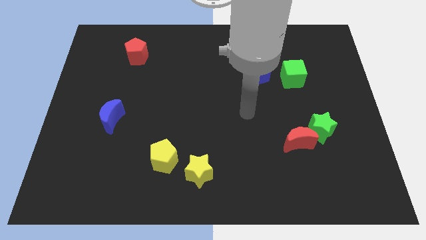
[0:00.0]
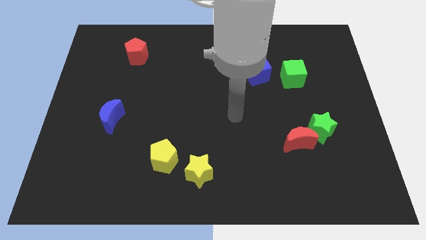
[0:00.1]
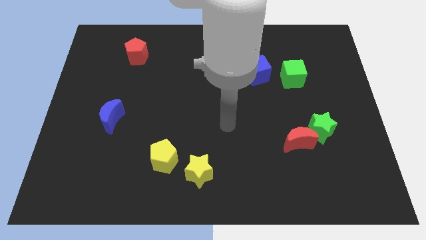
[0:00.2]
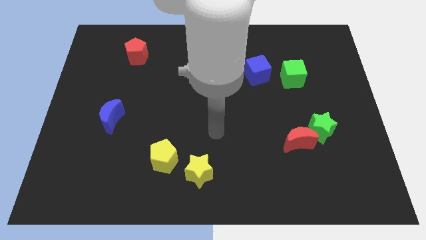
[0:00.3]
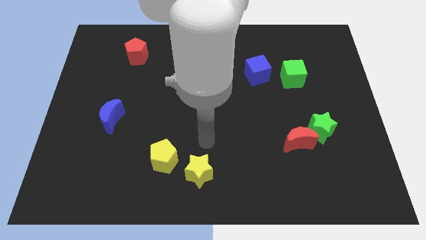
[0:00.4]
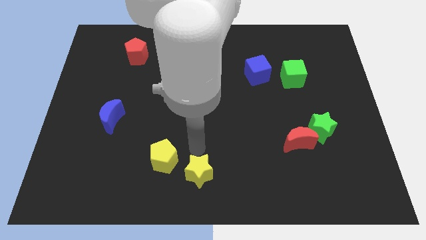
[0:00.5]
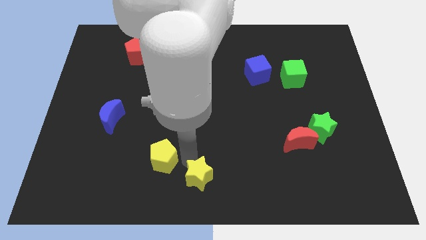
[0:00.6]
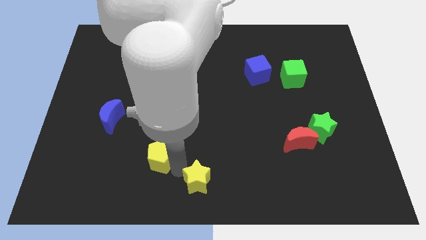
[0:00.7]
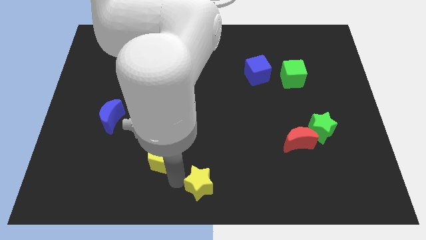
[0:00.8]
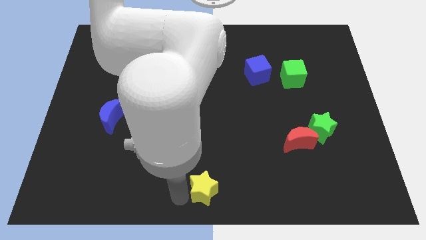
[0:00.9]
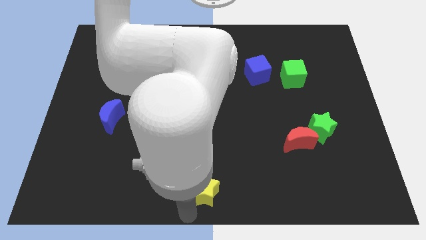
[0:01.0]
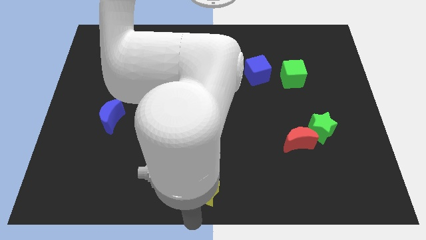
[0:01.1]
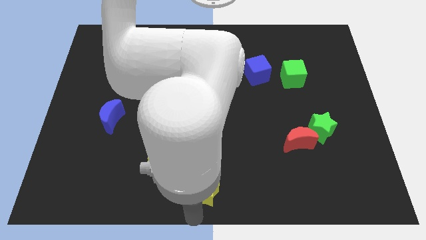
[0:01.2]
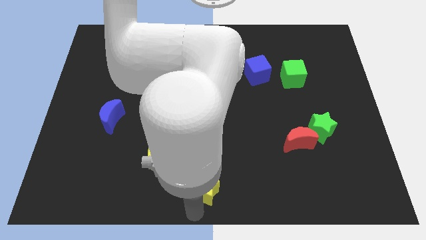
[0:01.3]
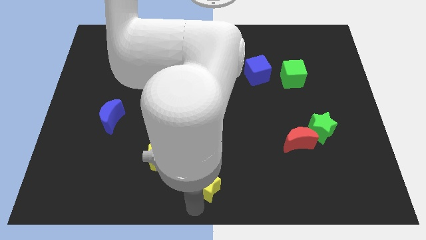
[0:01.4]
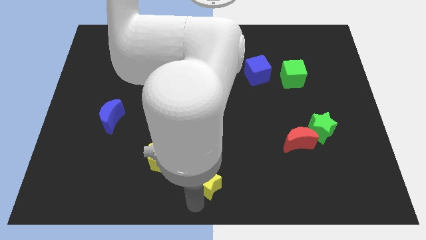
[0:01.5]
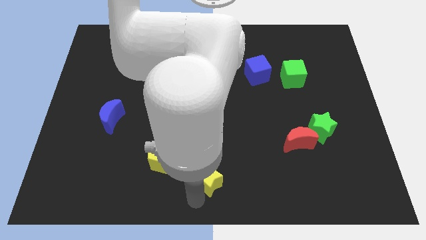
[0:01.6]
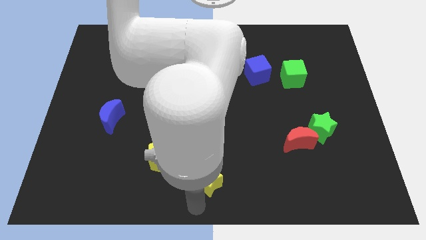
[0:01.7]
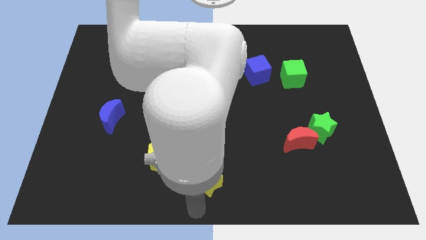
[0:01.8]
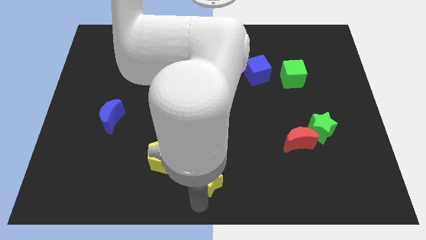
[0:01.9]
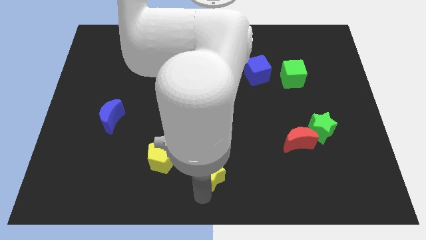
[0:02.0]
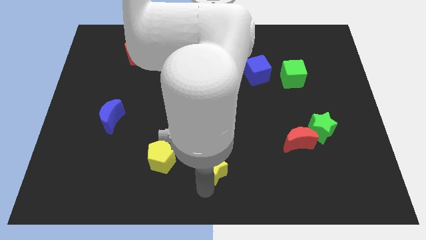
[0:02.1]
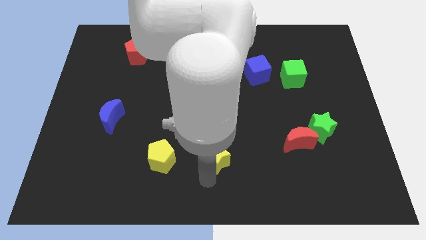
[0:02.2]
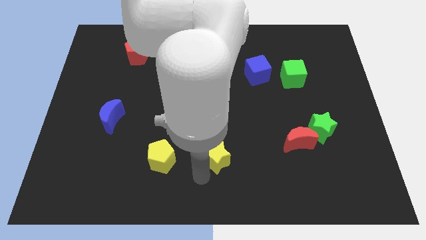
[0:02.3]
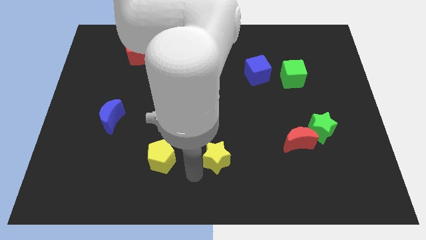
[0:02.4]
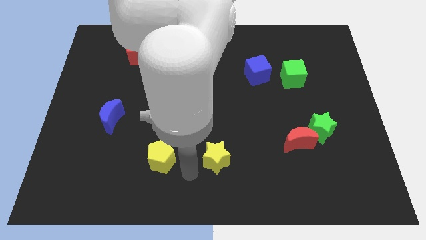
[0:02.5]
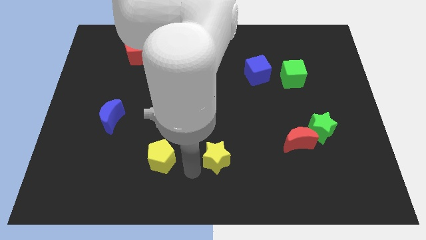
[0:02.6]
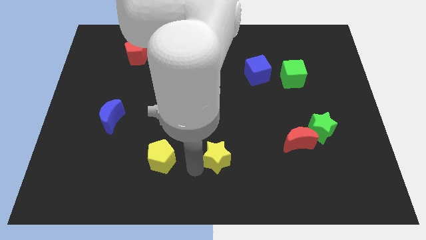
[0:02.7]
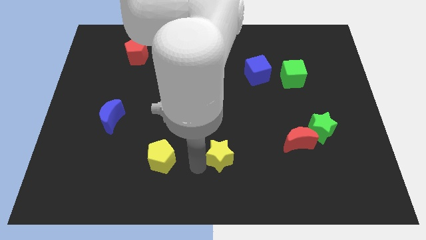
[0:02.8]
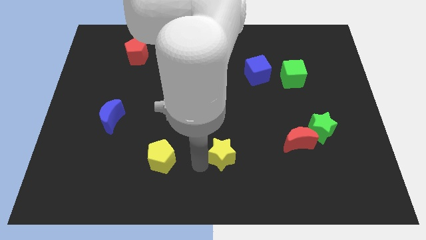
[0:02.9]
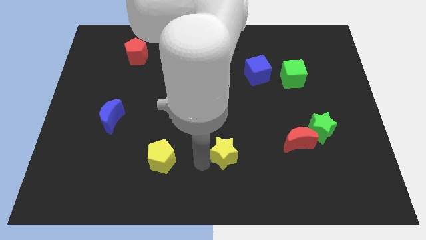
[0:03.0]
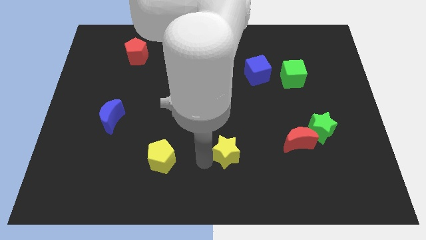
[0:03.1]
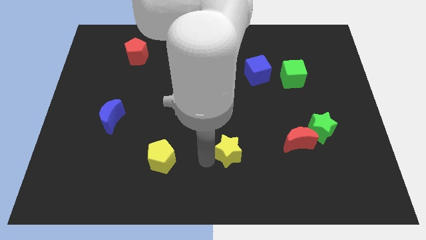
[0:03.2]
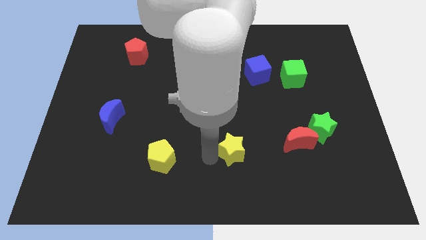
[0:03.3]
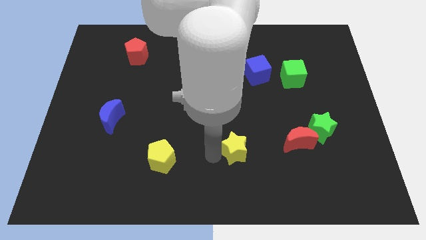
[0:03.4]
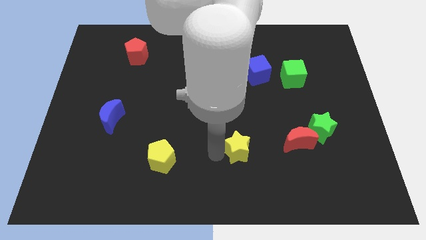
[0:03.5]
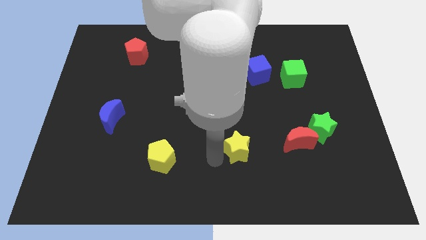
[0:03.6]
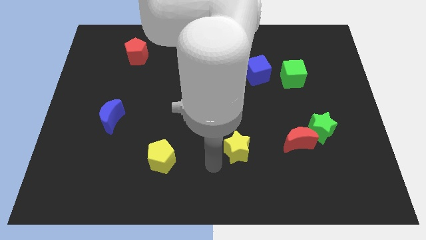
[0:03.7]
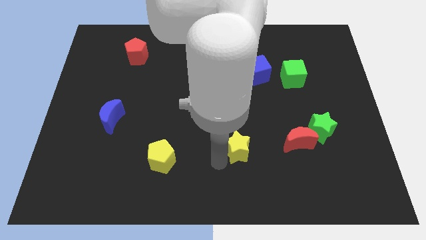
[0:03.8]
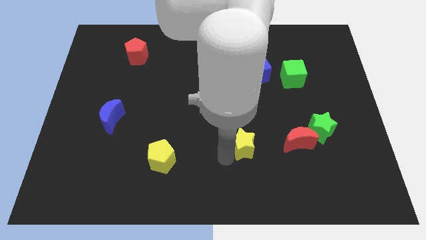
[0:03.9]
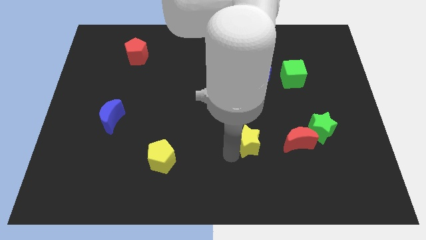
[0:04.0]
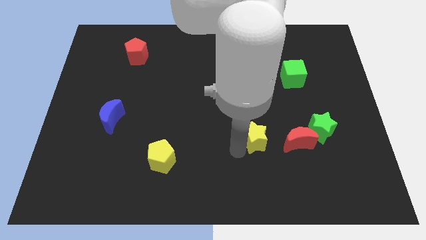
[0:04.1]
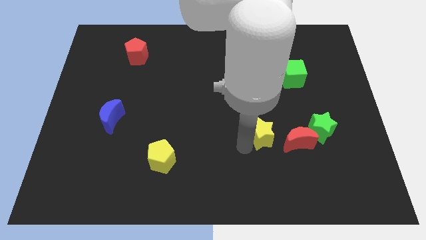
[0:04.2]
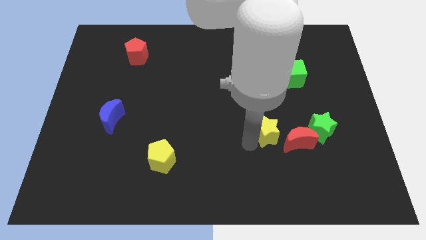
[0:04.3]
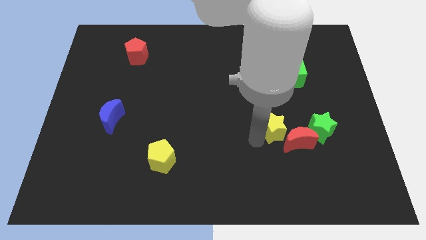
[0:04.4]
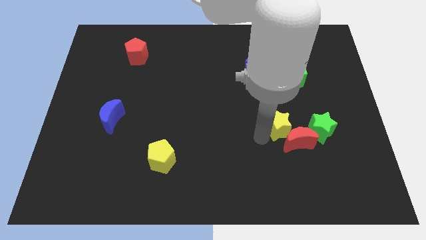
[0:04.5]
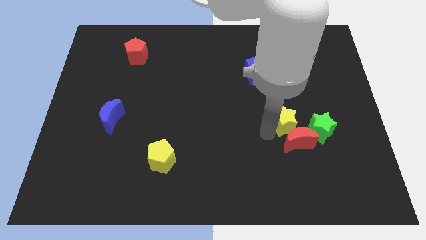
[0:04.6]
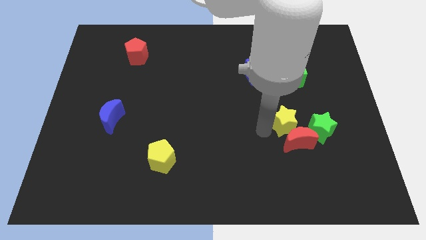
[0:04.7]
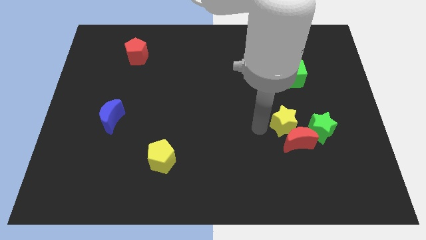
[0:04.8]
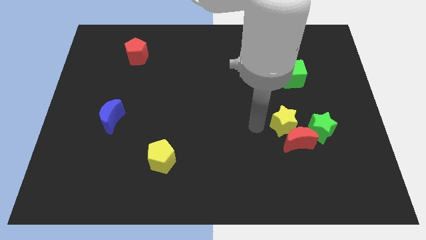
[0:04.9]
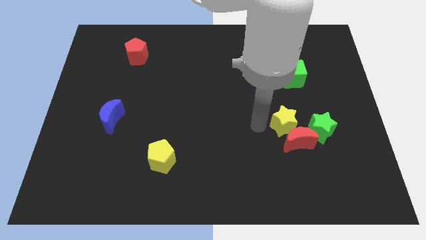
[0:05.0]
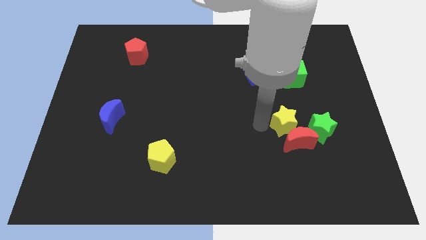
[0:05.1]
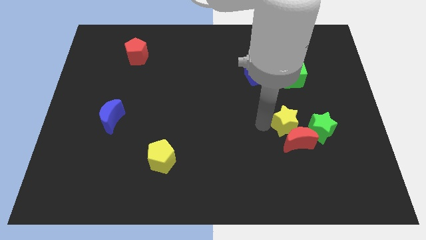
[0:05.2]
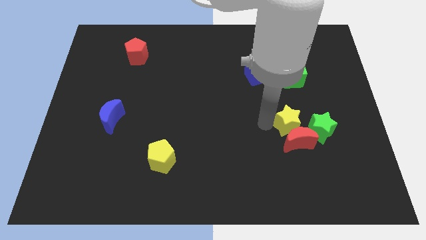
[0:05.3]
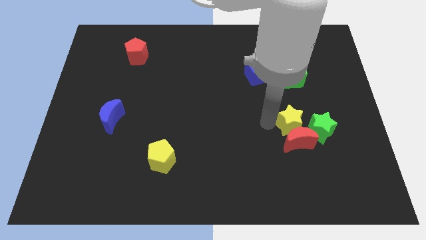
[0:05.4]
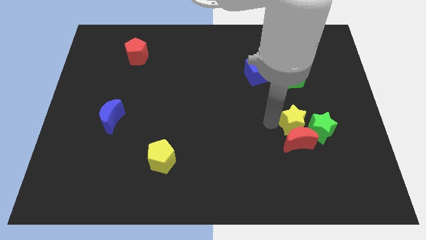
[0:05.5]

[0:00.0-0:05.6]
move the yellow star towards the green star

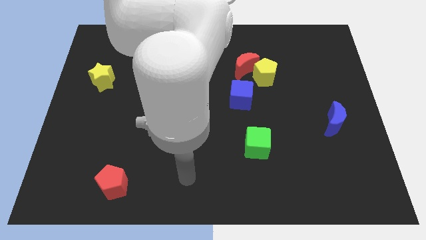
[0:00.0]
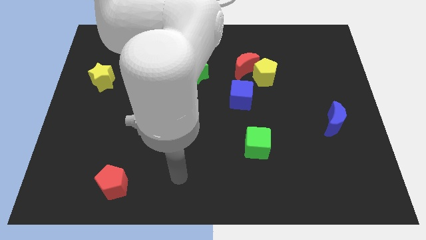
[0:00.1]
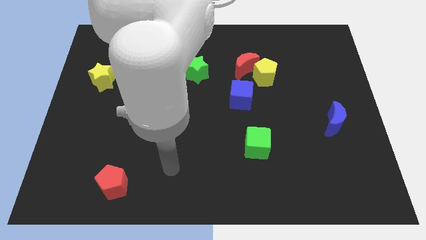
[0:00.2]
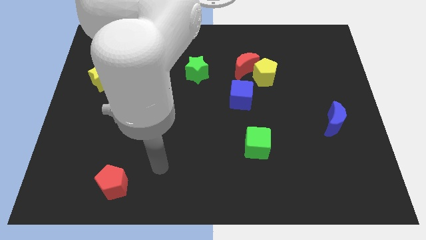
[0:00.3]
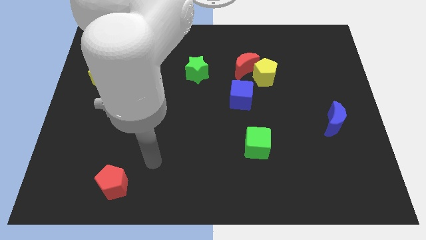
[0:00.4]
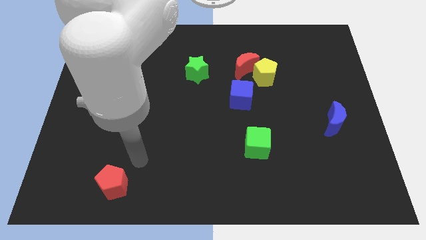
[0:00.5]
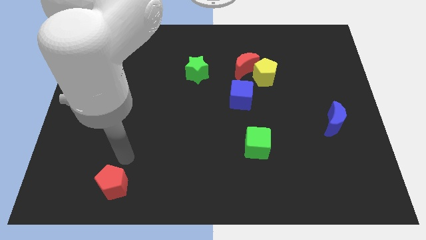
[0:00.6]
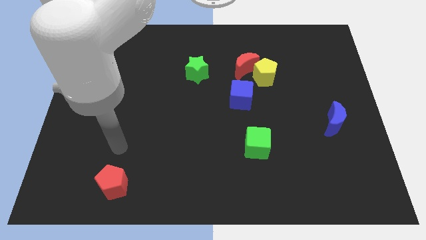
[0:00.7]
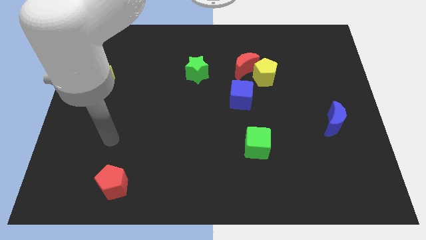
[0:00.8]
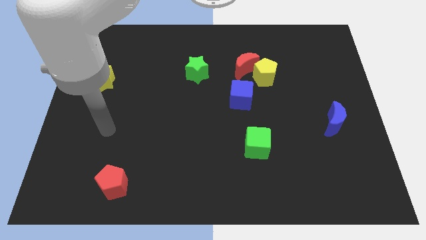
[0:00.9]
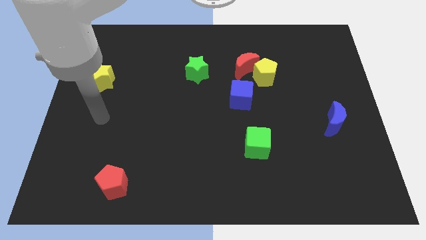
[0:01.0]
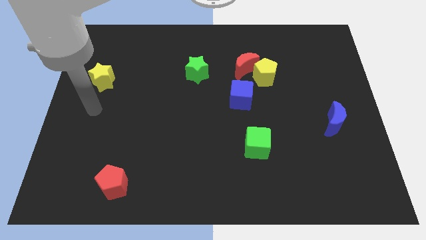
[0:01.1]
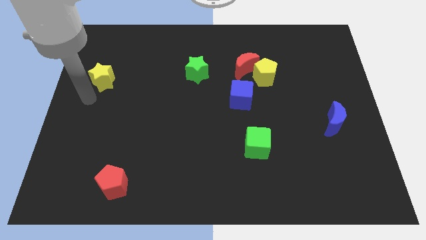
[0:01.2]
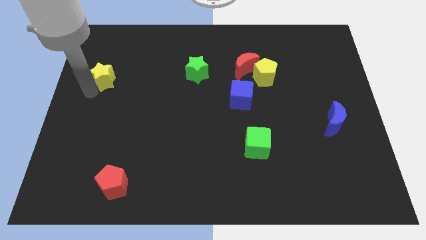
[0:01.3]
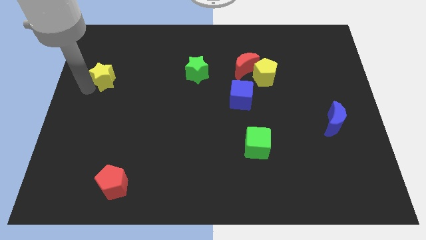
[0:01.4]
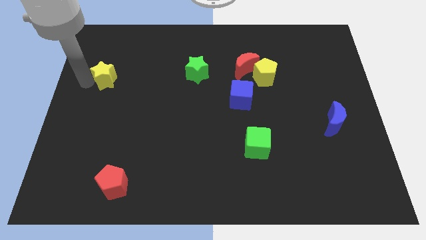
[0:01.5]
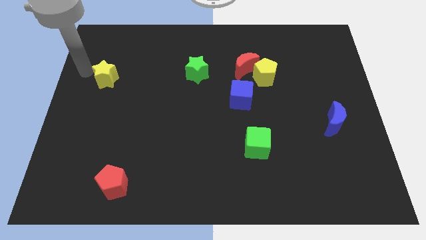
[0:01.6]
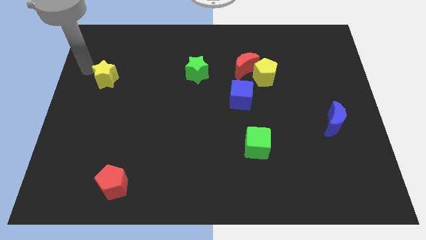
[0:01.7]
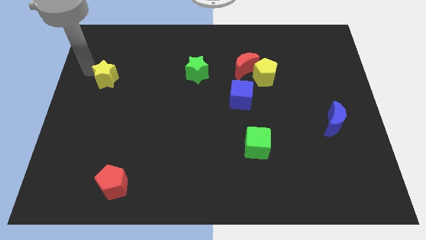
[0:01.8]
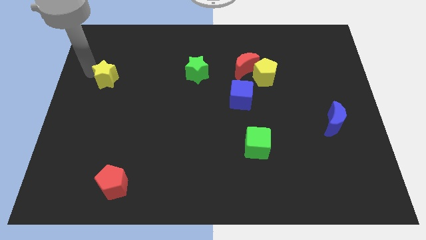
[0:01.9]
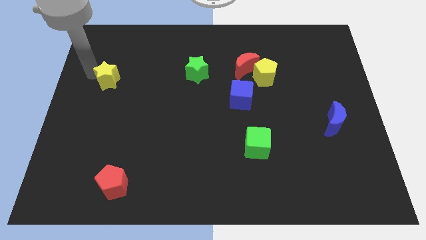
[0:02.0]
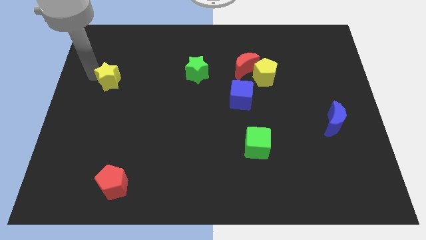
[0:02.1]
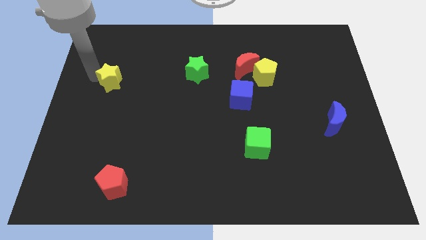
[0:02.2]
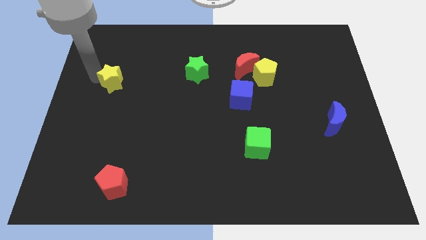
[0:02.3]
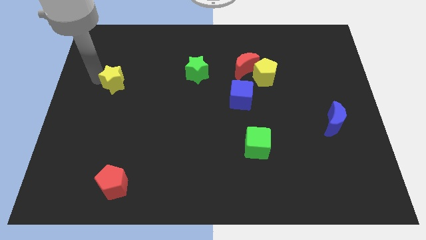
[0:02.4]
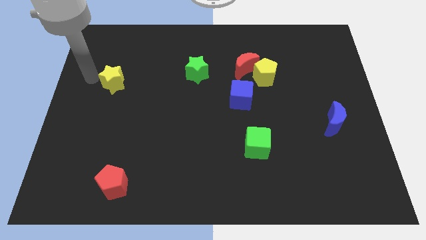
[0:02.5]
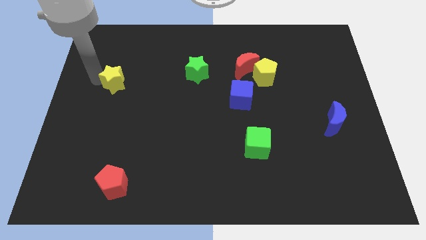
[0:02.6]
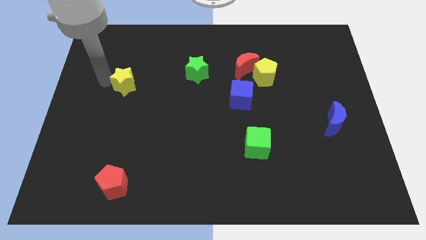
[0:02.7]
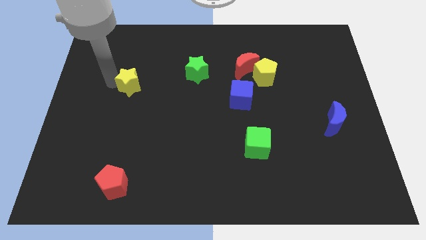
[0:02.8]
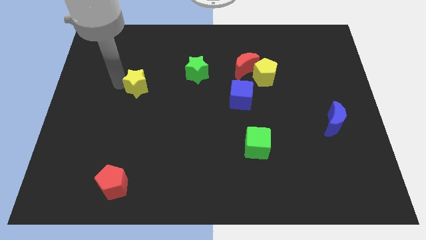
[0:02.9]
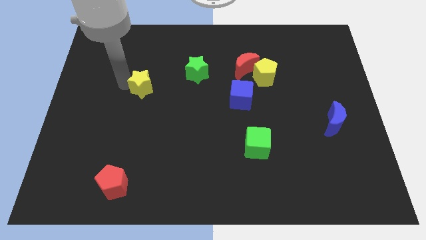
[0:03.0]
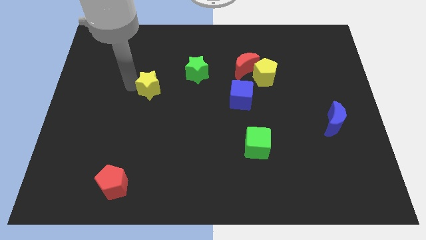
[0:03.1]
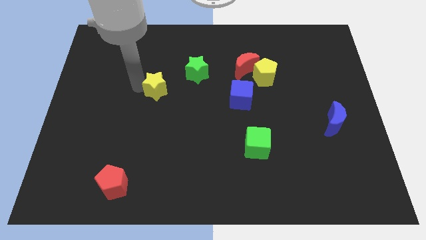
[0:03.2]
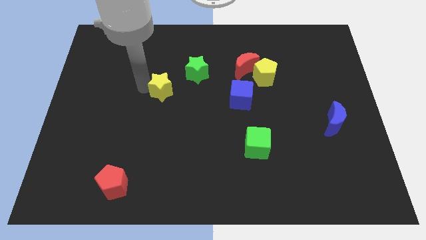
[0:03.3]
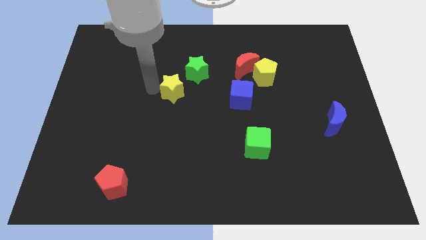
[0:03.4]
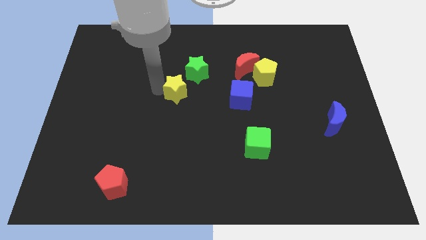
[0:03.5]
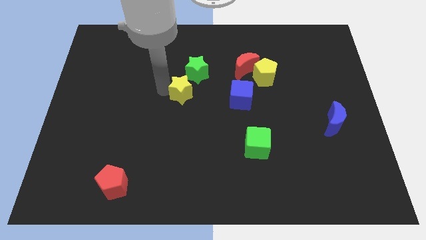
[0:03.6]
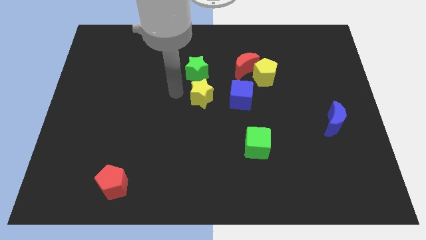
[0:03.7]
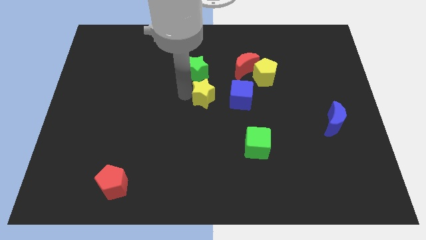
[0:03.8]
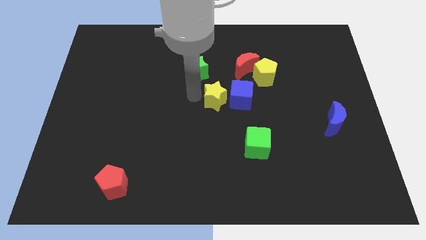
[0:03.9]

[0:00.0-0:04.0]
move the yellow star next to the blue cube
